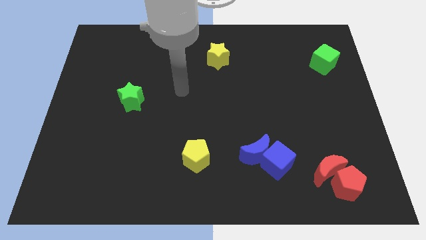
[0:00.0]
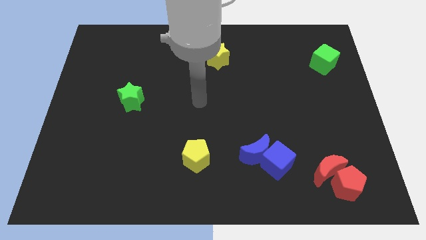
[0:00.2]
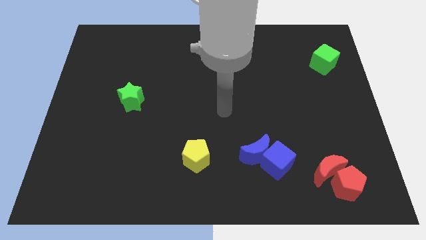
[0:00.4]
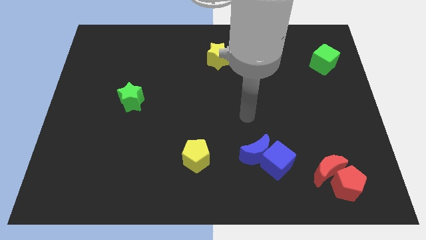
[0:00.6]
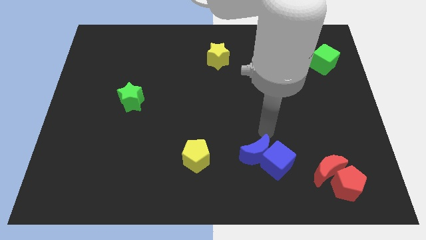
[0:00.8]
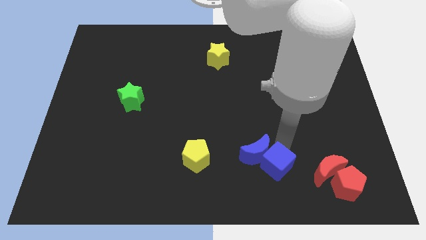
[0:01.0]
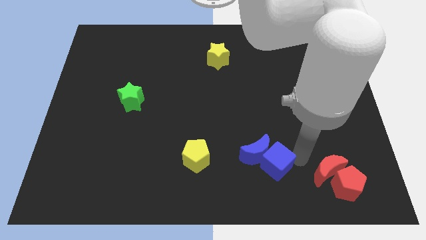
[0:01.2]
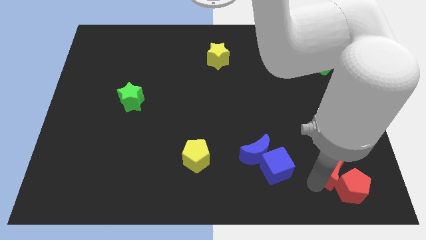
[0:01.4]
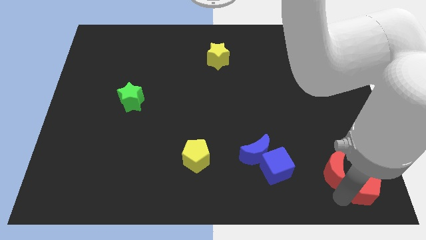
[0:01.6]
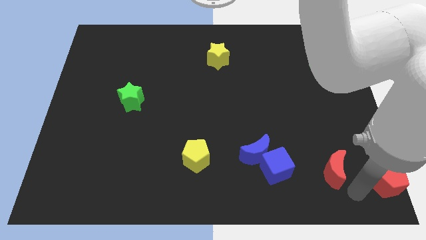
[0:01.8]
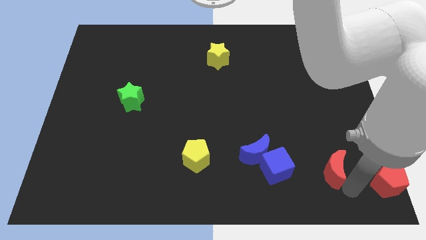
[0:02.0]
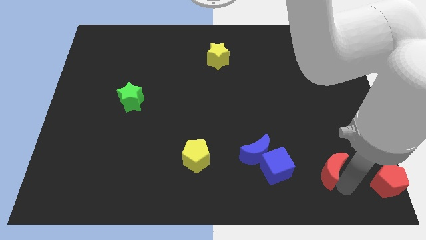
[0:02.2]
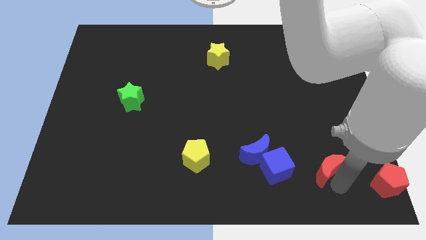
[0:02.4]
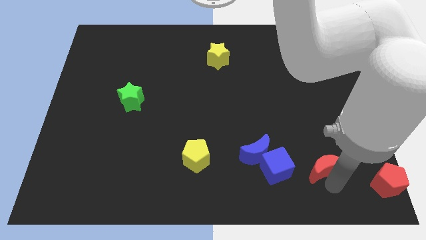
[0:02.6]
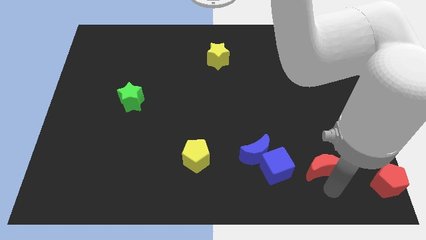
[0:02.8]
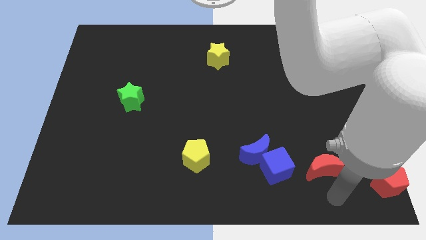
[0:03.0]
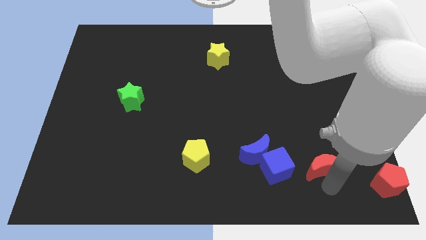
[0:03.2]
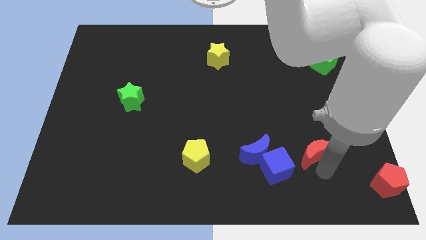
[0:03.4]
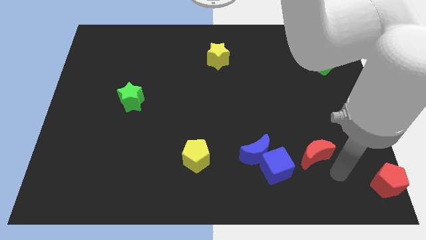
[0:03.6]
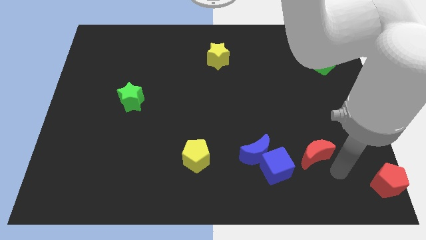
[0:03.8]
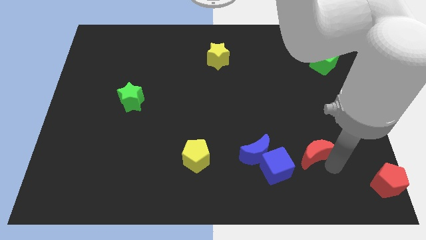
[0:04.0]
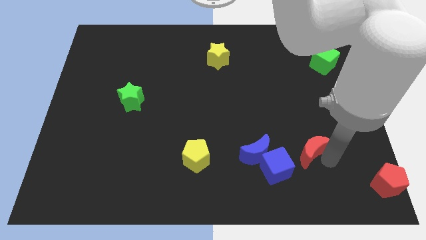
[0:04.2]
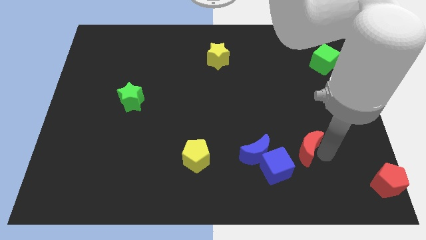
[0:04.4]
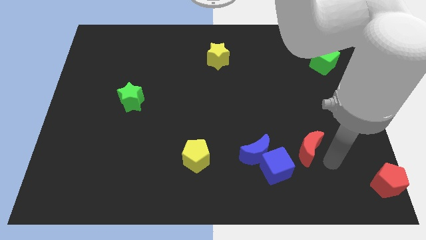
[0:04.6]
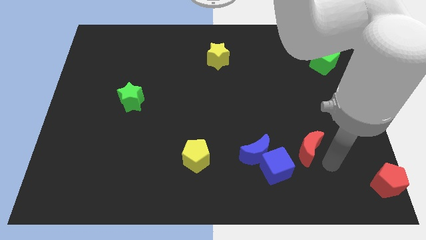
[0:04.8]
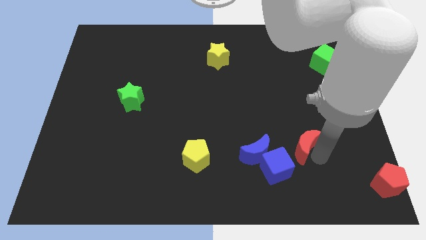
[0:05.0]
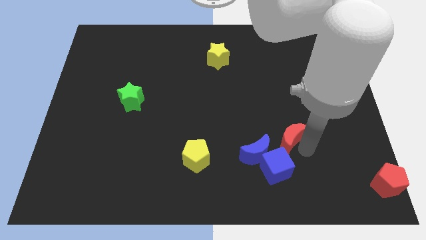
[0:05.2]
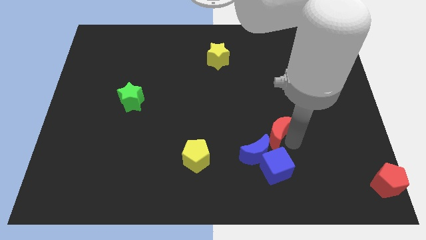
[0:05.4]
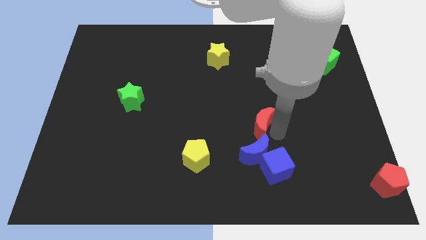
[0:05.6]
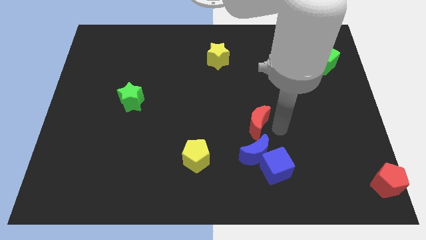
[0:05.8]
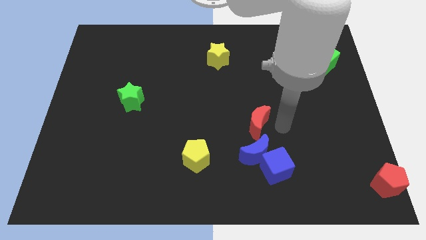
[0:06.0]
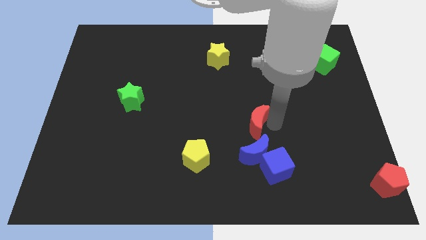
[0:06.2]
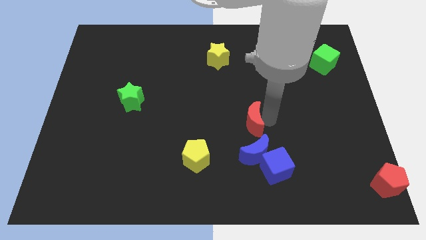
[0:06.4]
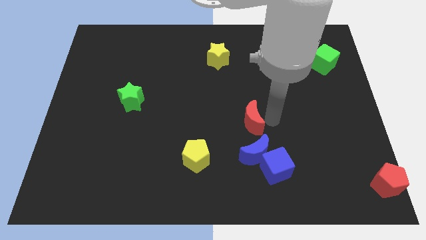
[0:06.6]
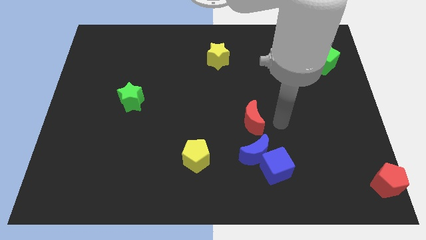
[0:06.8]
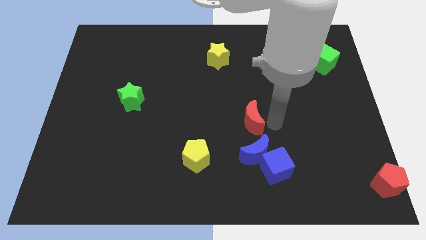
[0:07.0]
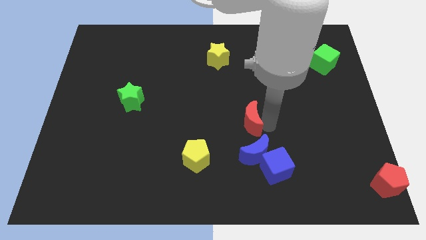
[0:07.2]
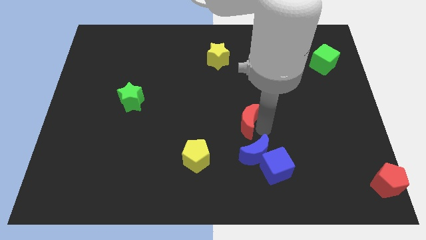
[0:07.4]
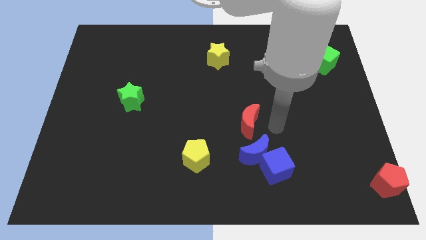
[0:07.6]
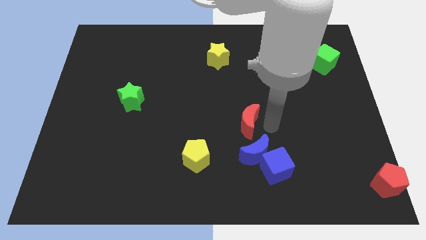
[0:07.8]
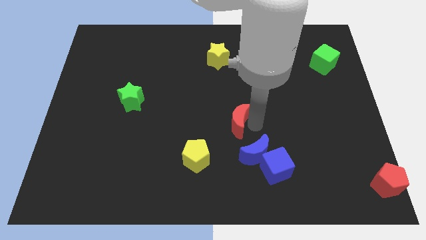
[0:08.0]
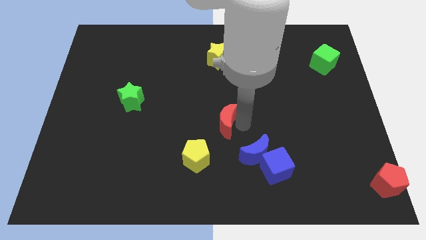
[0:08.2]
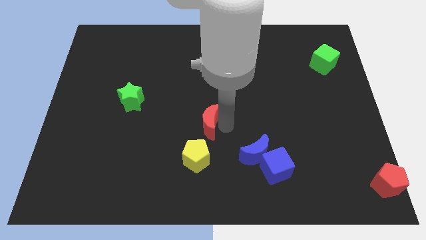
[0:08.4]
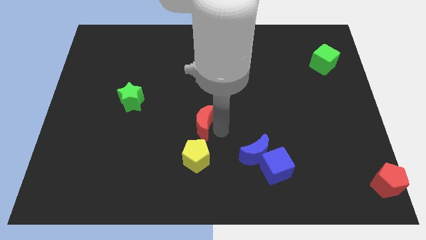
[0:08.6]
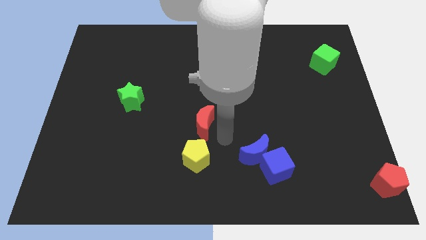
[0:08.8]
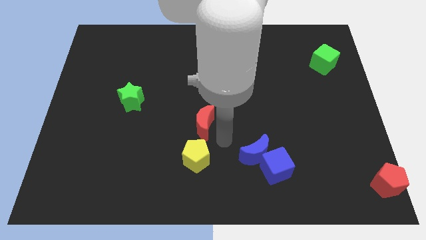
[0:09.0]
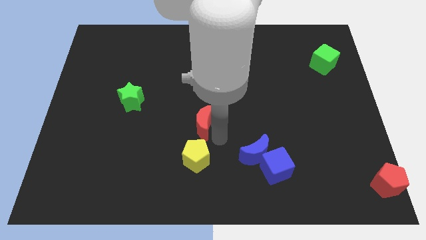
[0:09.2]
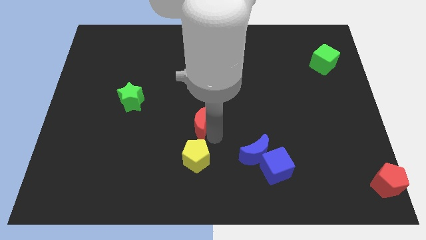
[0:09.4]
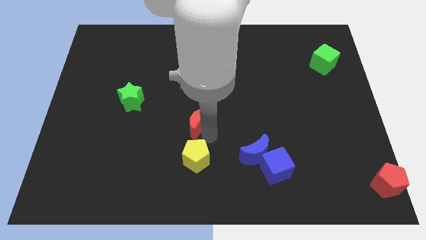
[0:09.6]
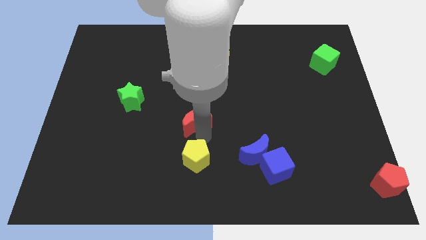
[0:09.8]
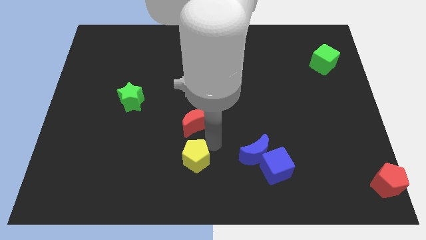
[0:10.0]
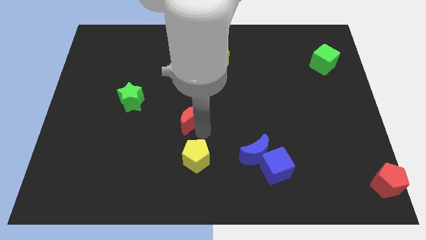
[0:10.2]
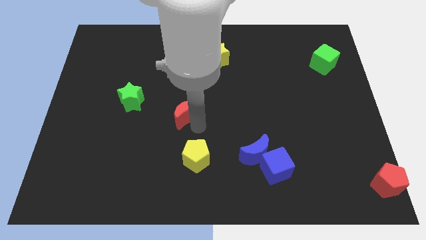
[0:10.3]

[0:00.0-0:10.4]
slide the red moon to the right of the green star

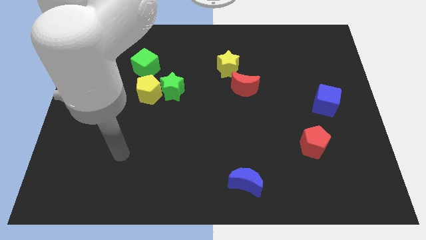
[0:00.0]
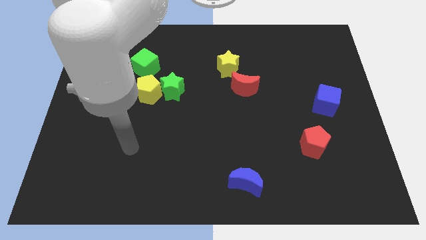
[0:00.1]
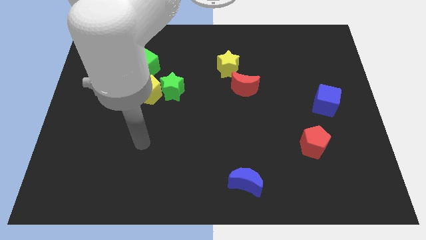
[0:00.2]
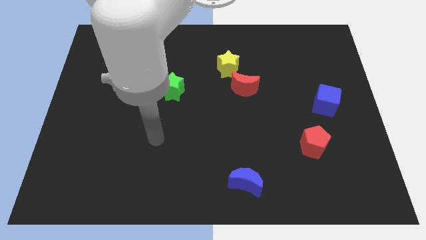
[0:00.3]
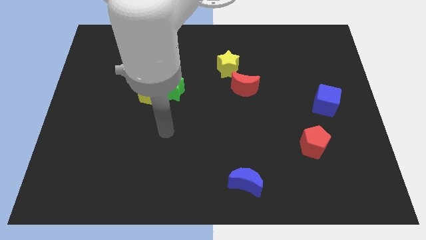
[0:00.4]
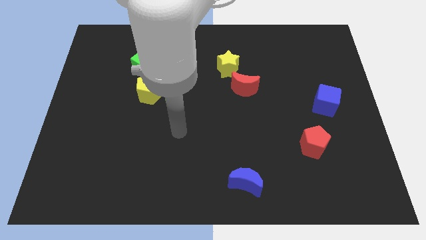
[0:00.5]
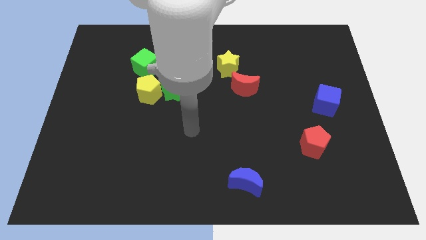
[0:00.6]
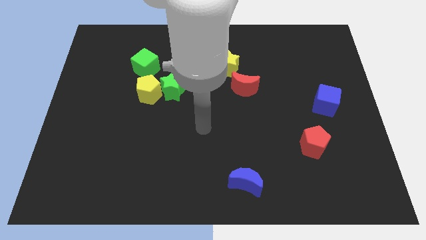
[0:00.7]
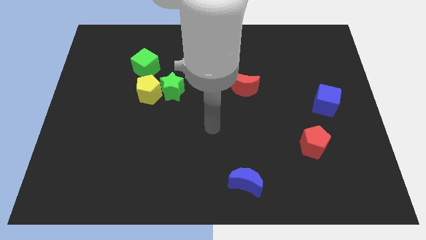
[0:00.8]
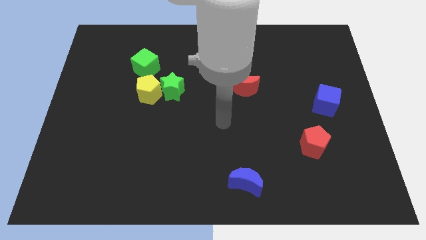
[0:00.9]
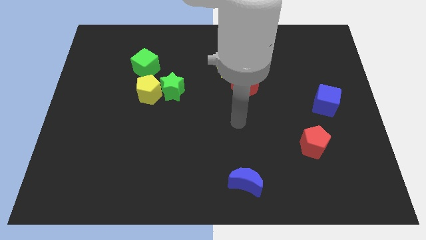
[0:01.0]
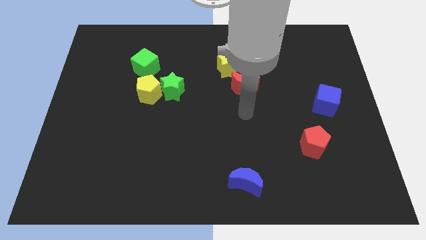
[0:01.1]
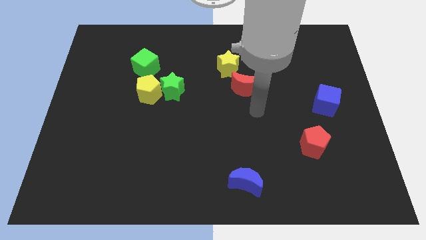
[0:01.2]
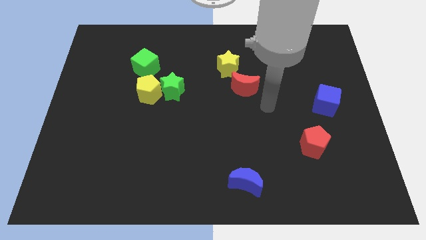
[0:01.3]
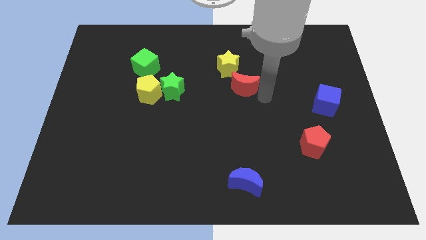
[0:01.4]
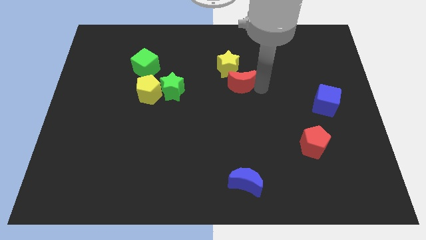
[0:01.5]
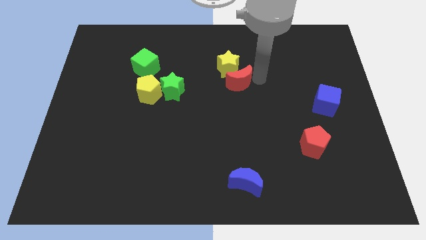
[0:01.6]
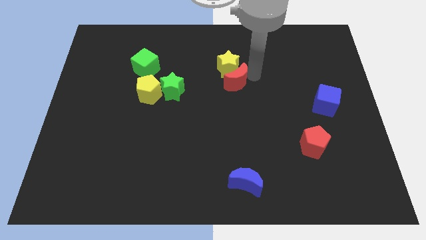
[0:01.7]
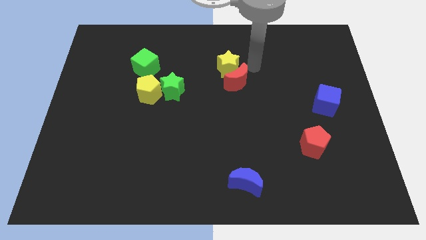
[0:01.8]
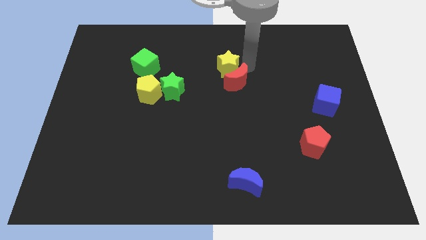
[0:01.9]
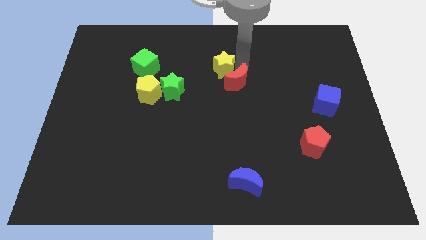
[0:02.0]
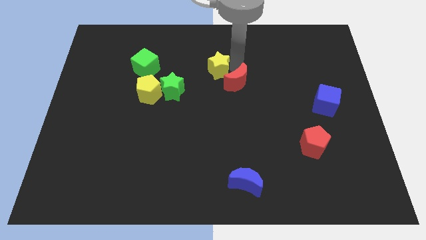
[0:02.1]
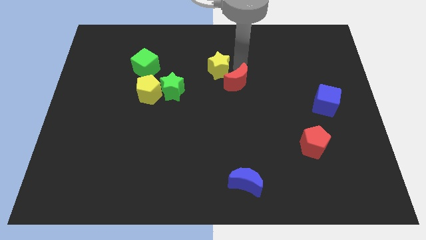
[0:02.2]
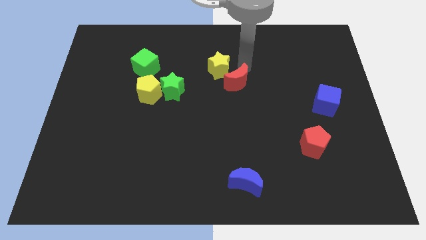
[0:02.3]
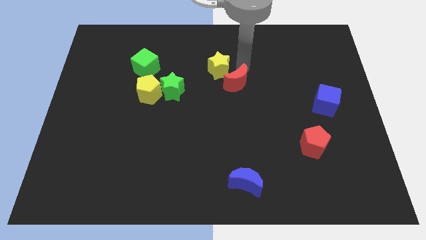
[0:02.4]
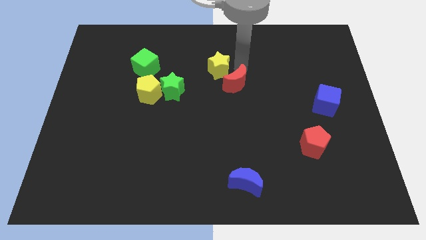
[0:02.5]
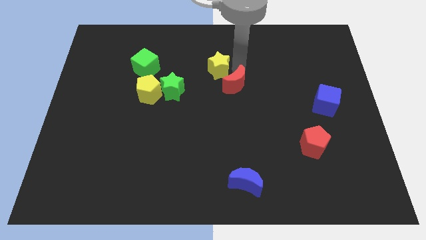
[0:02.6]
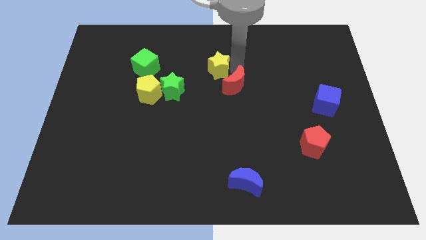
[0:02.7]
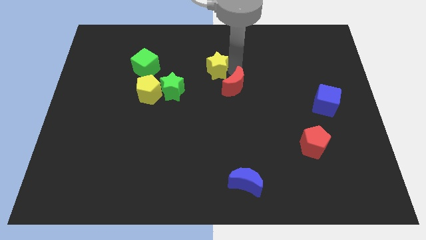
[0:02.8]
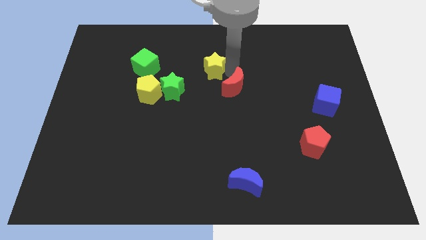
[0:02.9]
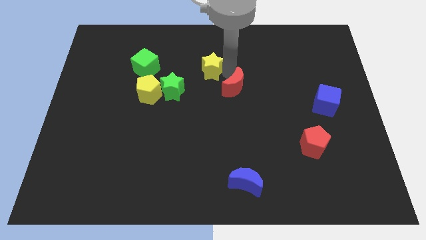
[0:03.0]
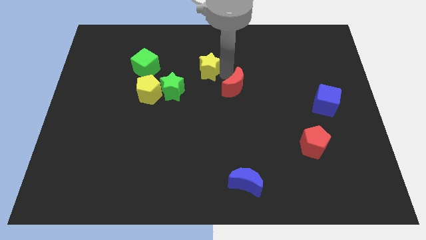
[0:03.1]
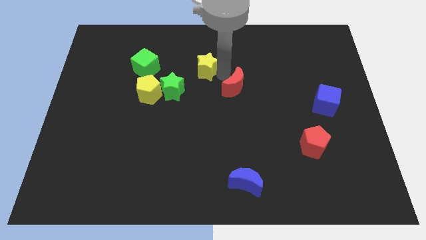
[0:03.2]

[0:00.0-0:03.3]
put the yellow star right of the green cube
